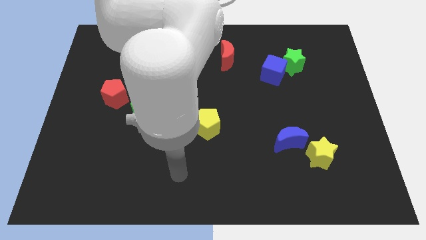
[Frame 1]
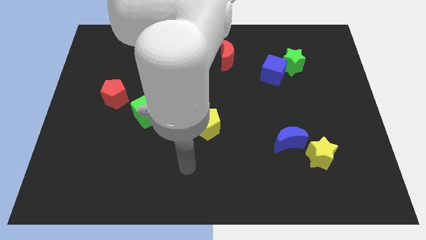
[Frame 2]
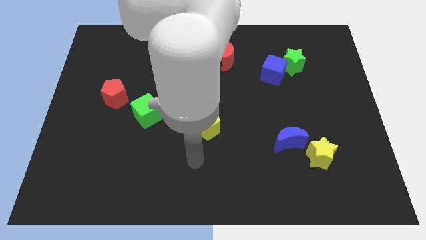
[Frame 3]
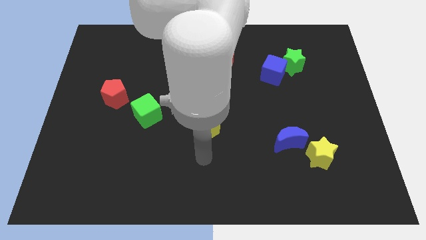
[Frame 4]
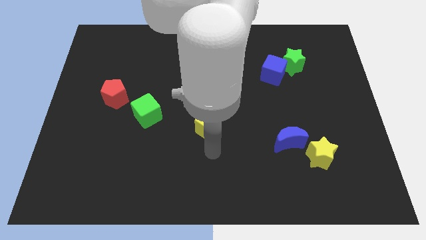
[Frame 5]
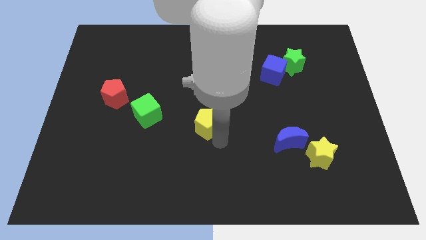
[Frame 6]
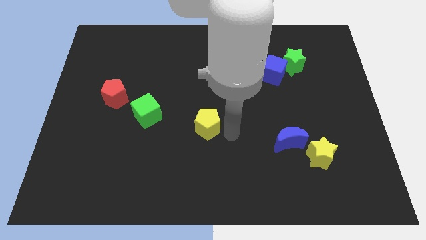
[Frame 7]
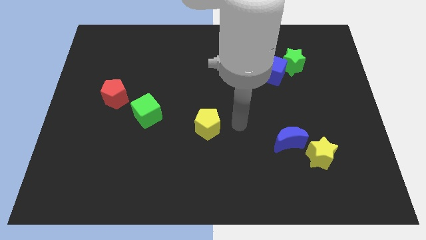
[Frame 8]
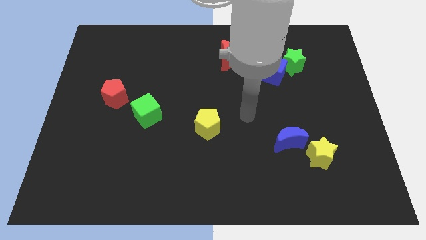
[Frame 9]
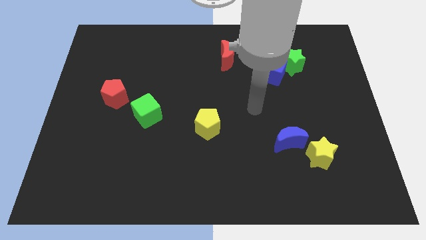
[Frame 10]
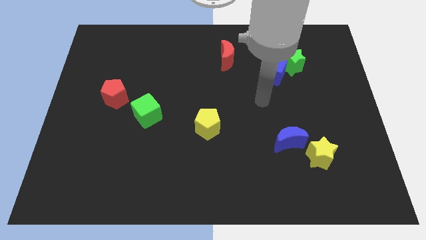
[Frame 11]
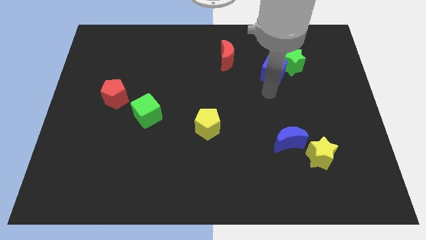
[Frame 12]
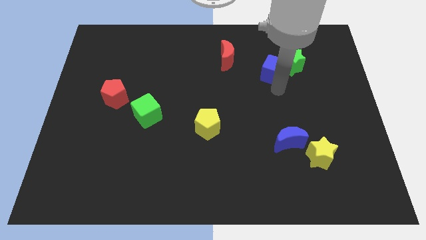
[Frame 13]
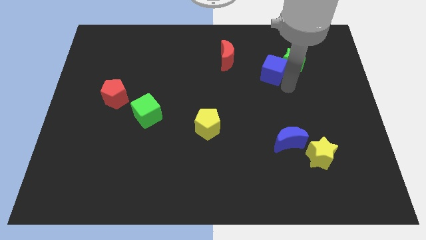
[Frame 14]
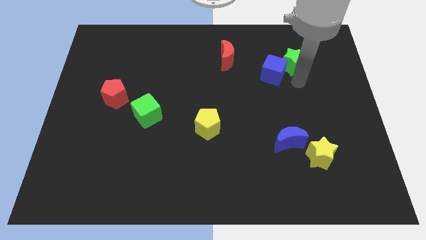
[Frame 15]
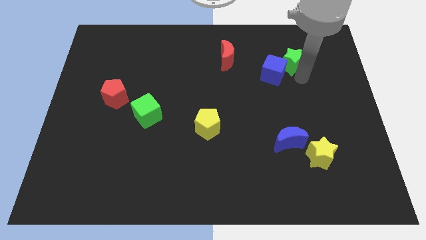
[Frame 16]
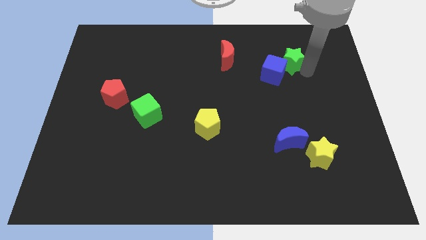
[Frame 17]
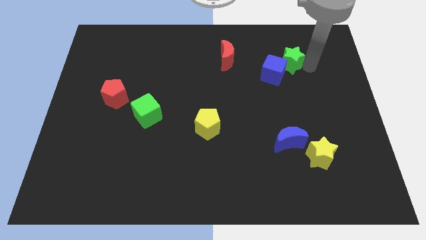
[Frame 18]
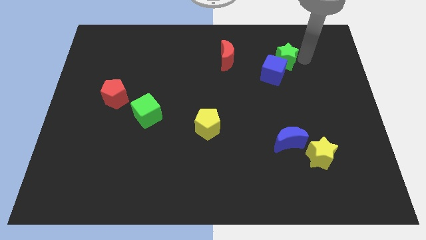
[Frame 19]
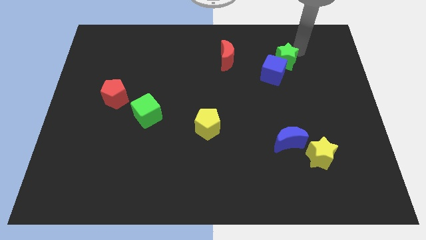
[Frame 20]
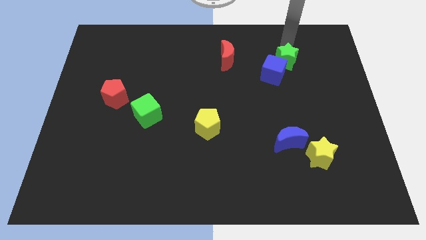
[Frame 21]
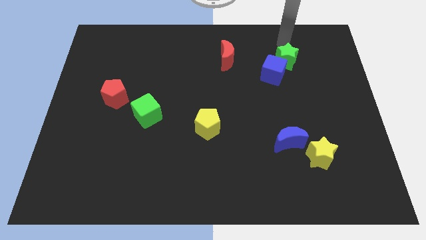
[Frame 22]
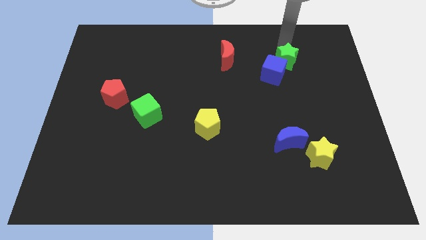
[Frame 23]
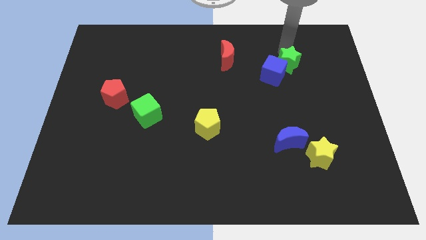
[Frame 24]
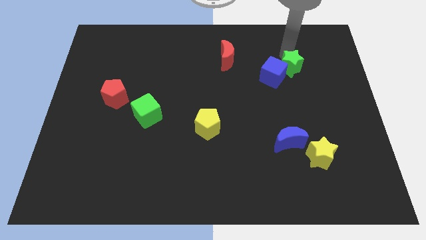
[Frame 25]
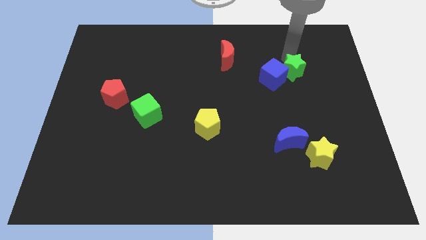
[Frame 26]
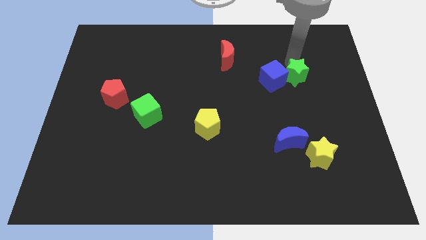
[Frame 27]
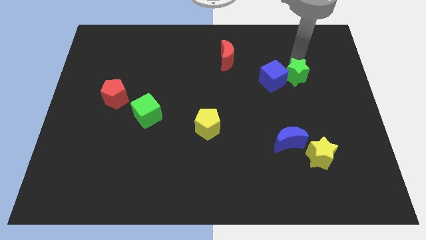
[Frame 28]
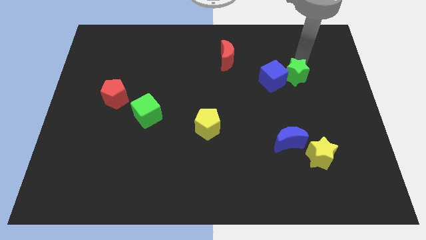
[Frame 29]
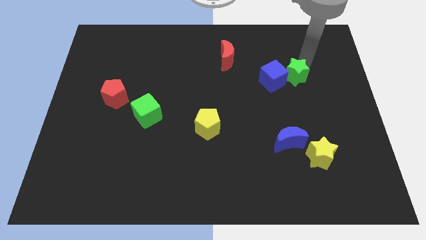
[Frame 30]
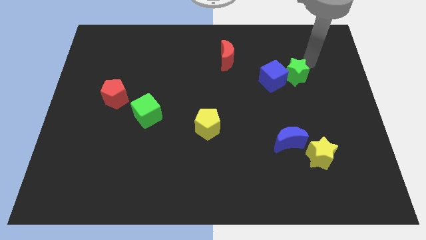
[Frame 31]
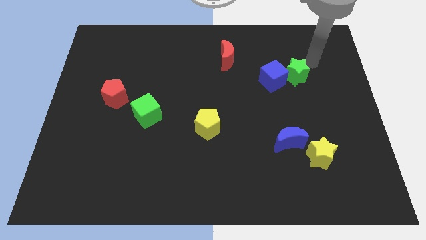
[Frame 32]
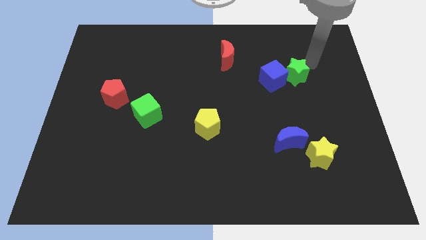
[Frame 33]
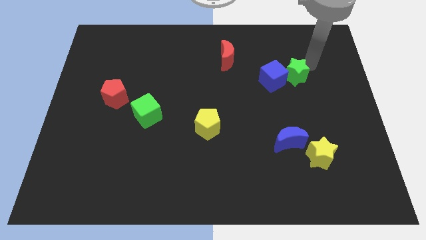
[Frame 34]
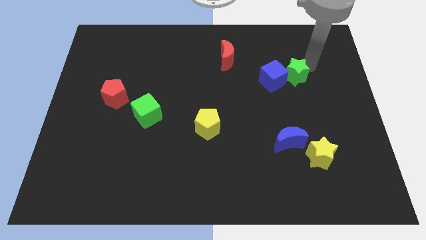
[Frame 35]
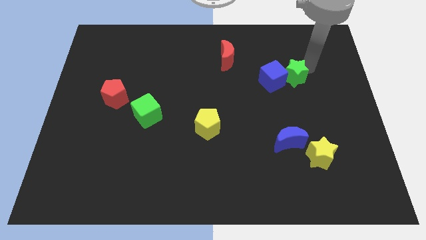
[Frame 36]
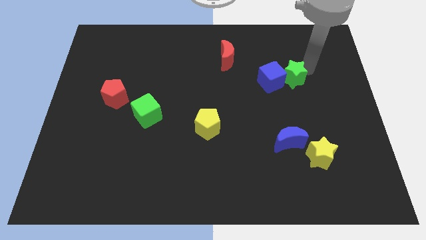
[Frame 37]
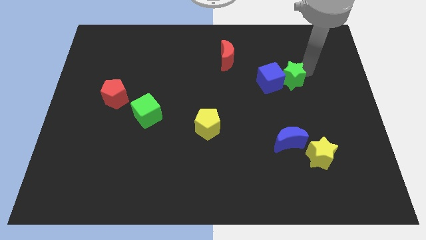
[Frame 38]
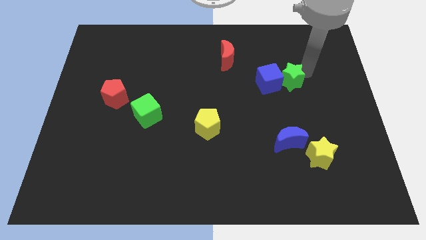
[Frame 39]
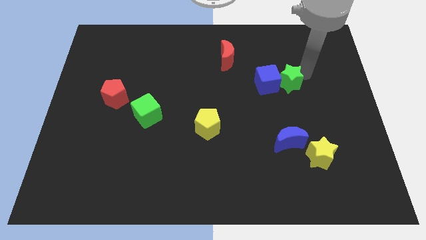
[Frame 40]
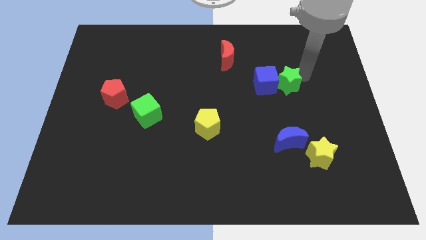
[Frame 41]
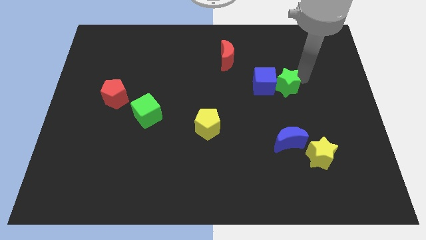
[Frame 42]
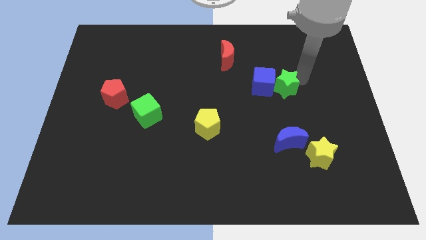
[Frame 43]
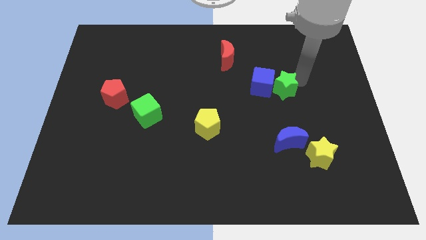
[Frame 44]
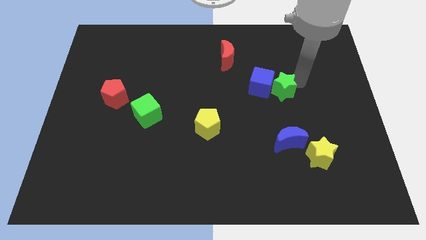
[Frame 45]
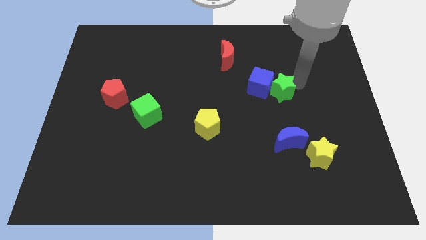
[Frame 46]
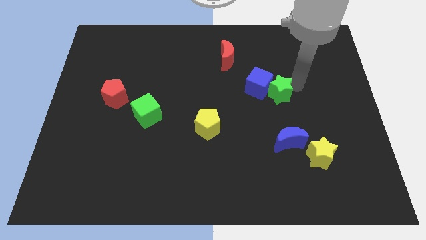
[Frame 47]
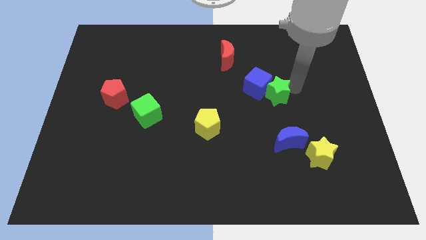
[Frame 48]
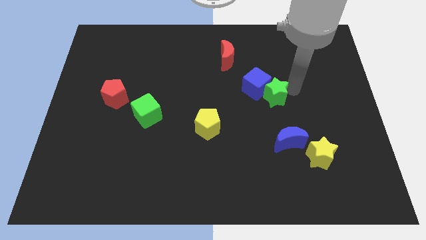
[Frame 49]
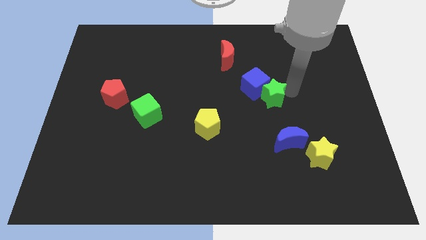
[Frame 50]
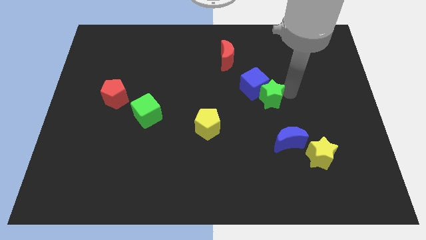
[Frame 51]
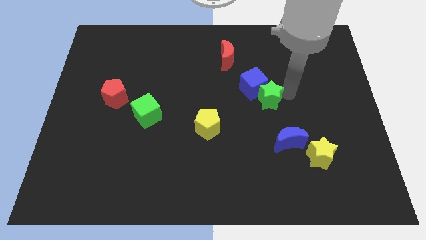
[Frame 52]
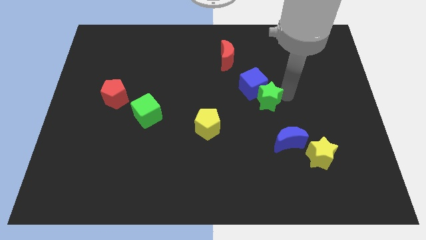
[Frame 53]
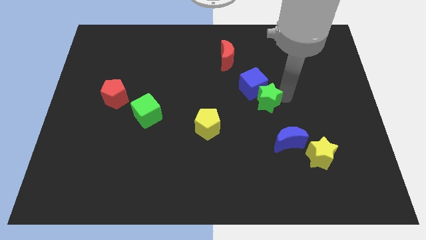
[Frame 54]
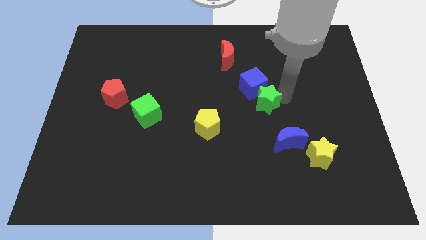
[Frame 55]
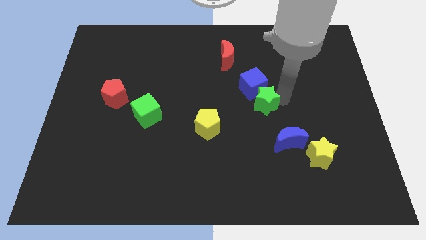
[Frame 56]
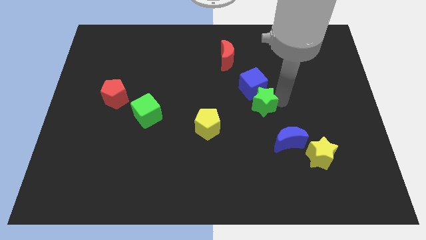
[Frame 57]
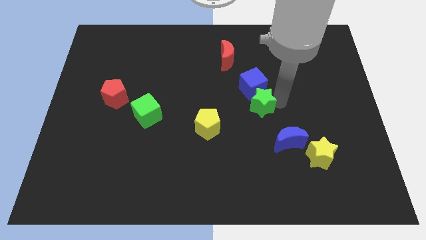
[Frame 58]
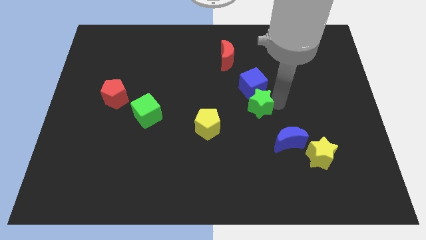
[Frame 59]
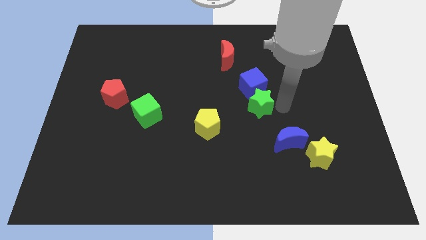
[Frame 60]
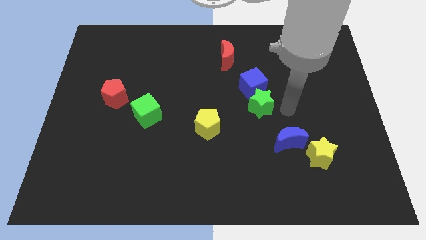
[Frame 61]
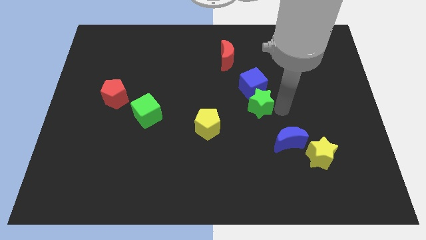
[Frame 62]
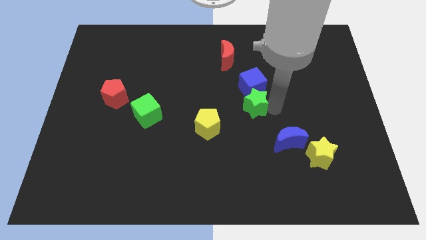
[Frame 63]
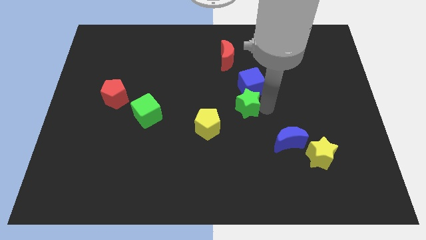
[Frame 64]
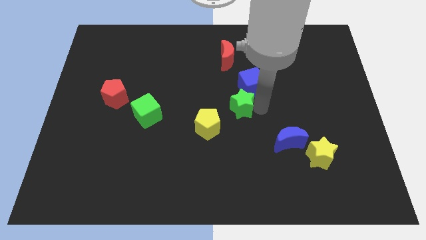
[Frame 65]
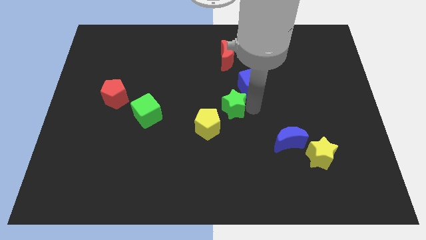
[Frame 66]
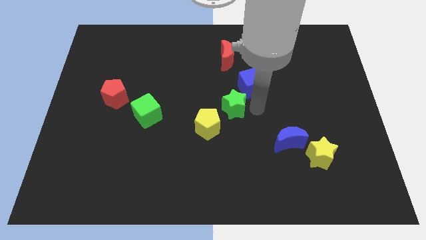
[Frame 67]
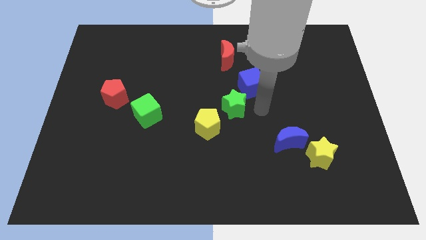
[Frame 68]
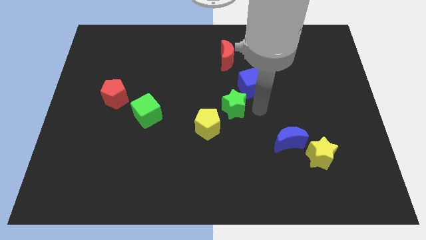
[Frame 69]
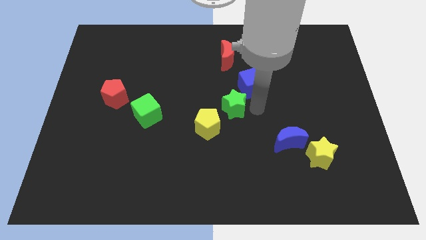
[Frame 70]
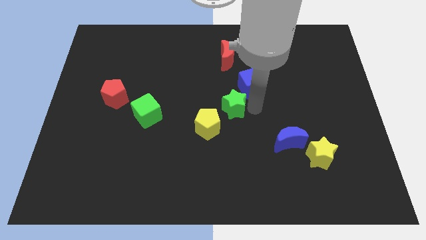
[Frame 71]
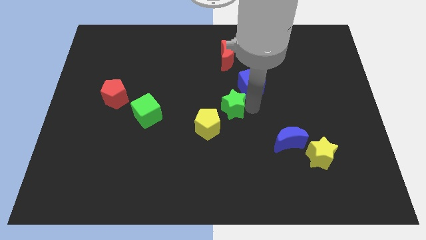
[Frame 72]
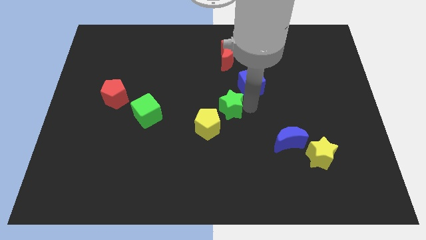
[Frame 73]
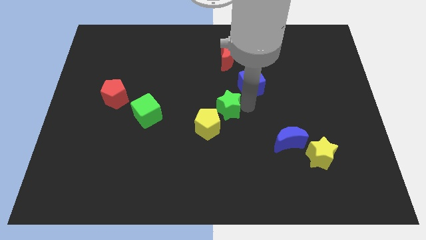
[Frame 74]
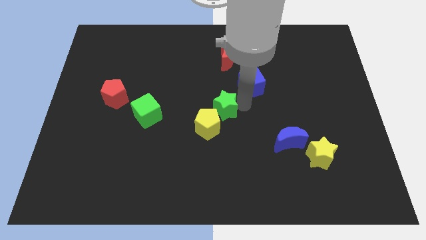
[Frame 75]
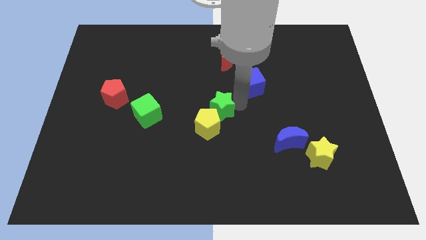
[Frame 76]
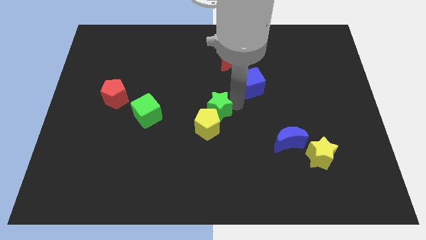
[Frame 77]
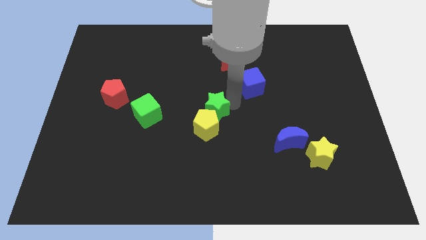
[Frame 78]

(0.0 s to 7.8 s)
put the green star just right of the green cube
